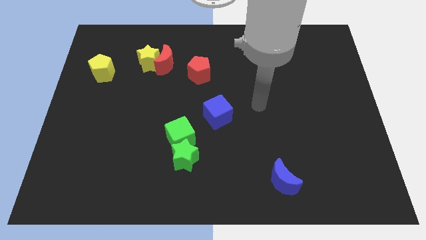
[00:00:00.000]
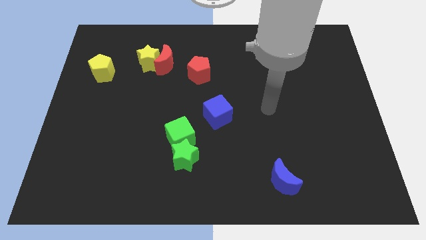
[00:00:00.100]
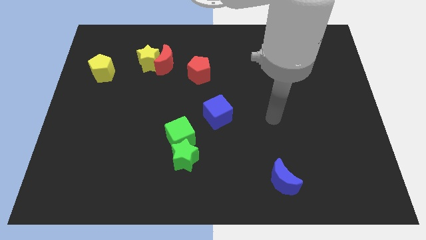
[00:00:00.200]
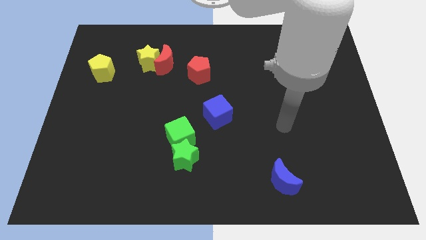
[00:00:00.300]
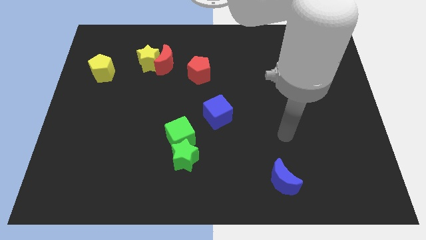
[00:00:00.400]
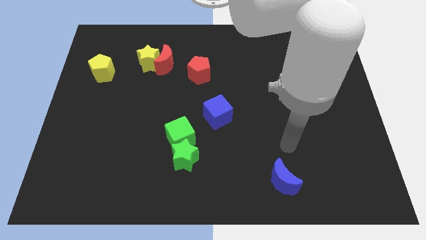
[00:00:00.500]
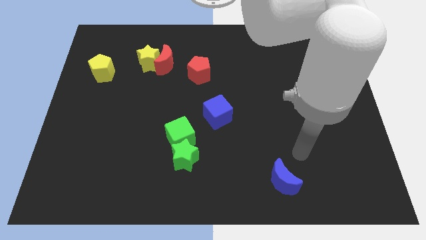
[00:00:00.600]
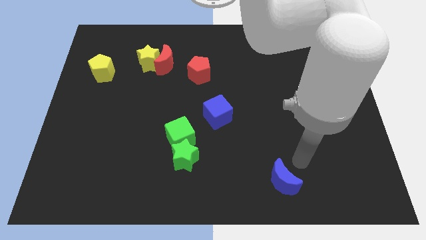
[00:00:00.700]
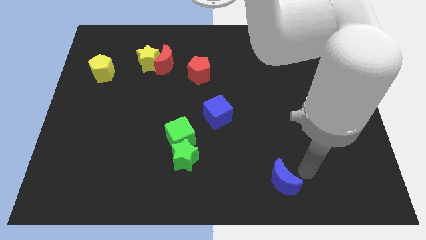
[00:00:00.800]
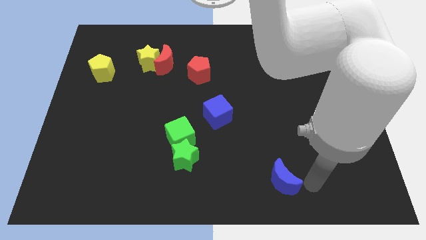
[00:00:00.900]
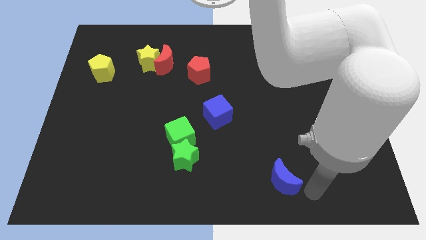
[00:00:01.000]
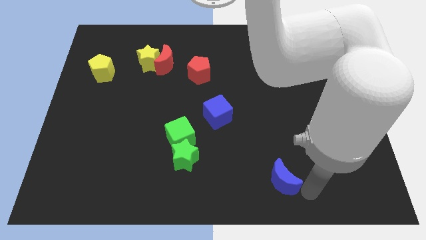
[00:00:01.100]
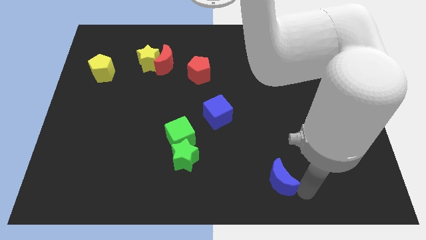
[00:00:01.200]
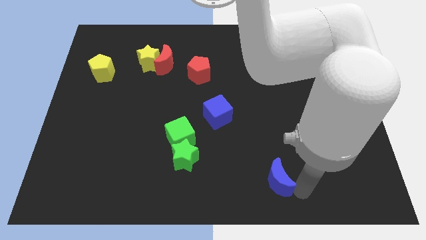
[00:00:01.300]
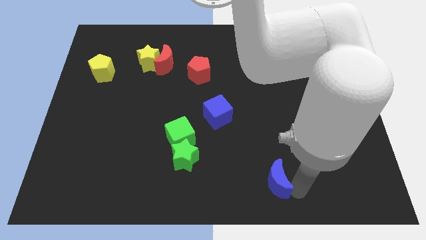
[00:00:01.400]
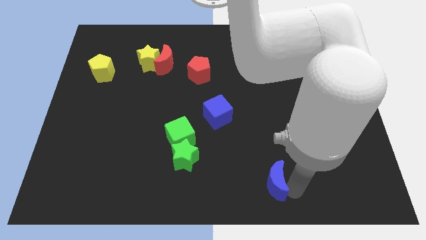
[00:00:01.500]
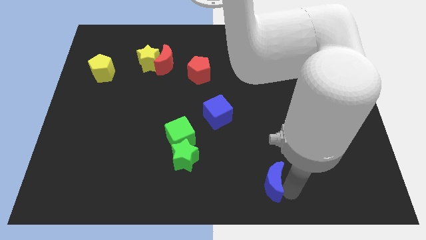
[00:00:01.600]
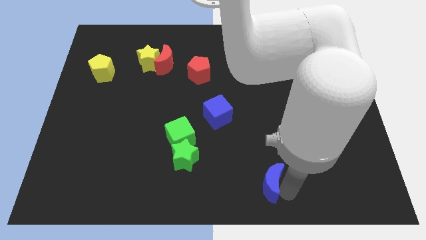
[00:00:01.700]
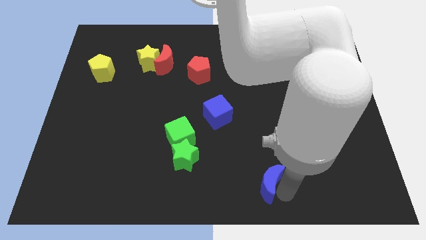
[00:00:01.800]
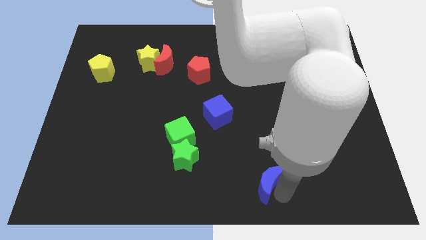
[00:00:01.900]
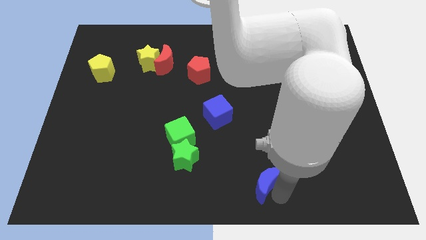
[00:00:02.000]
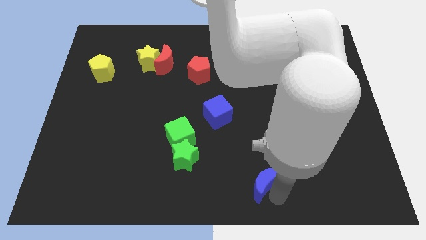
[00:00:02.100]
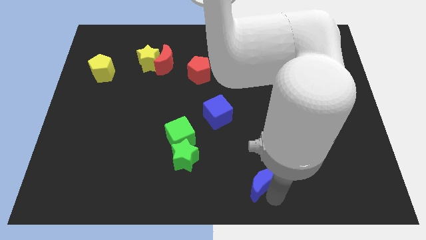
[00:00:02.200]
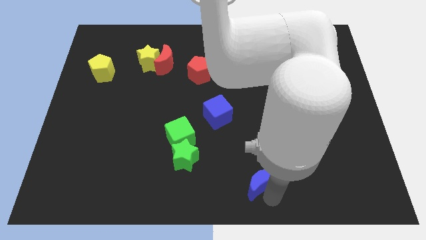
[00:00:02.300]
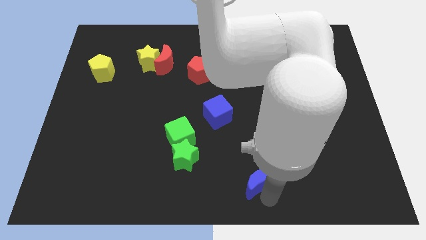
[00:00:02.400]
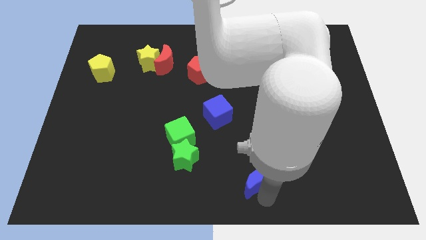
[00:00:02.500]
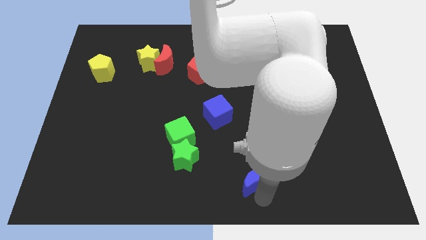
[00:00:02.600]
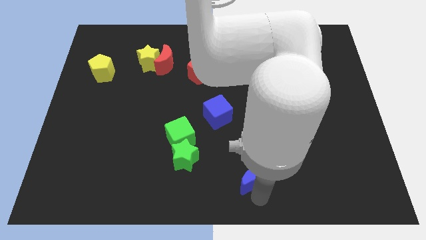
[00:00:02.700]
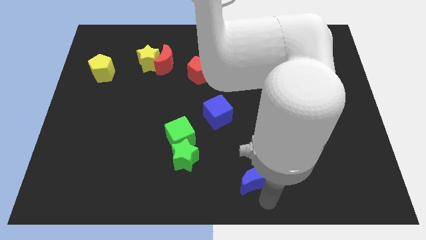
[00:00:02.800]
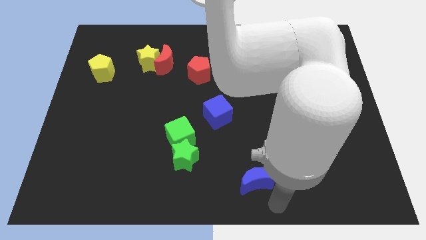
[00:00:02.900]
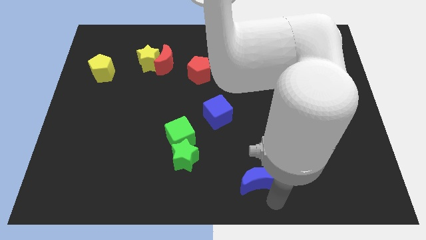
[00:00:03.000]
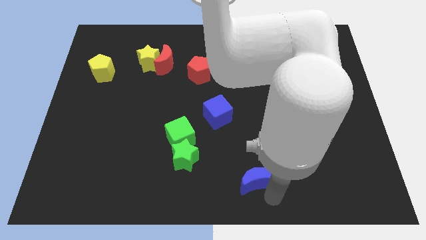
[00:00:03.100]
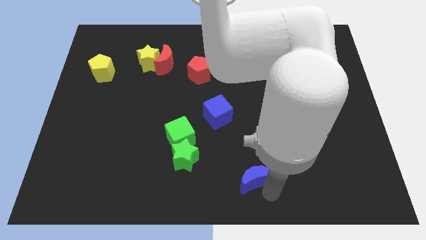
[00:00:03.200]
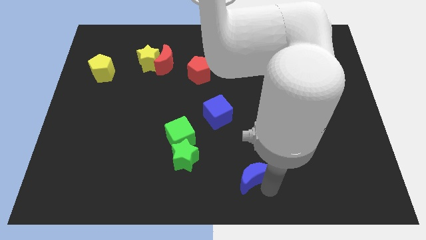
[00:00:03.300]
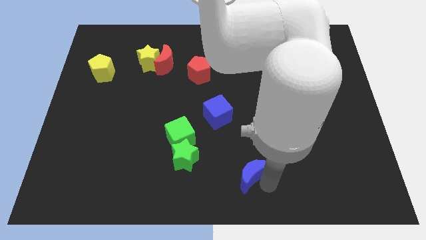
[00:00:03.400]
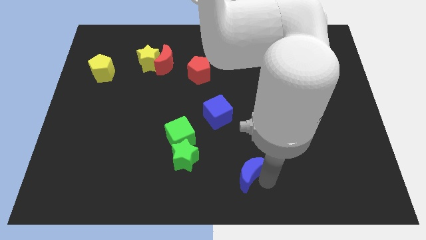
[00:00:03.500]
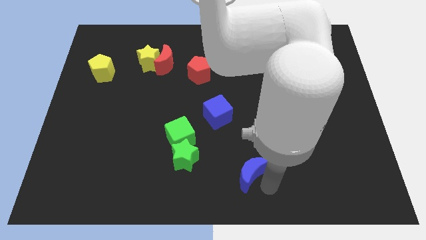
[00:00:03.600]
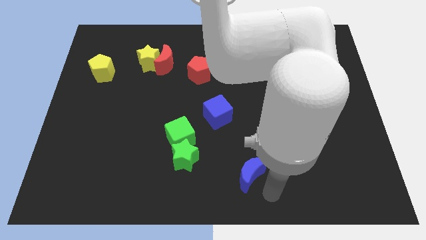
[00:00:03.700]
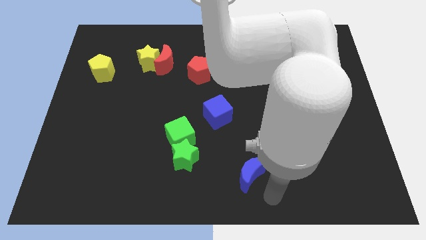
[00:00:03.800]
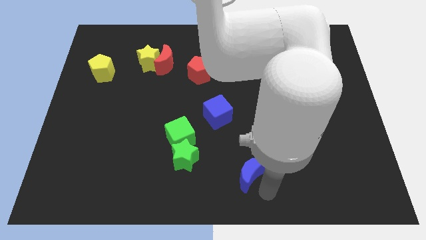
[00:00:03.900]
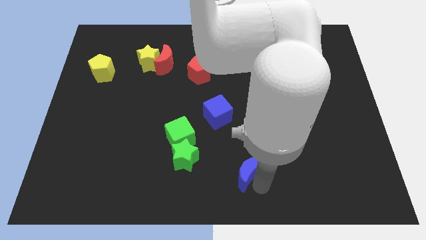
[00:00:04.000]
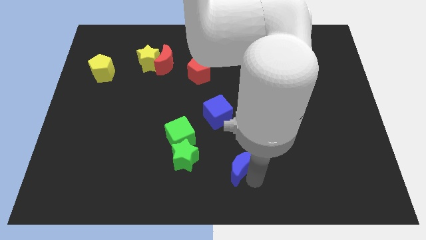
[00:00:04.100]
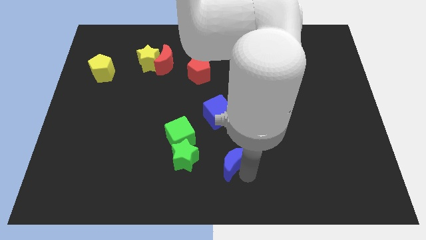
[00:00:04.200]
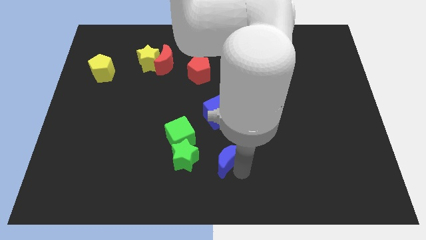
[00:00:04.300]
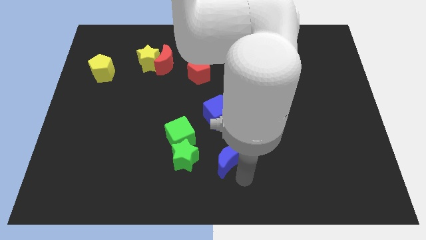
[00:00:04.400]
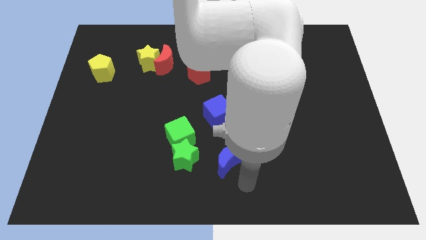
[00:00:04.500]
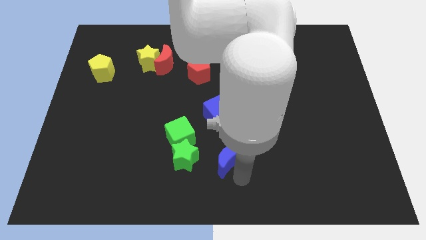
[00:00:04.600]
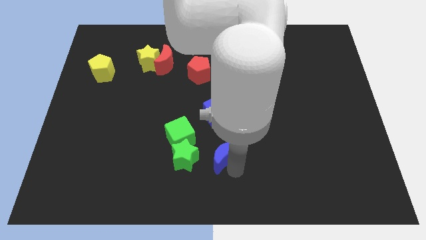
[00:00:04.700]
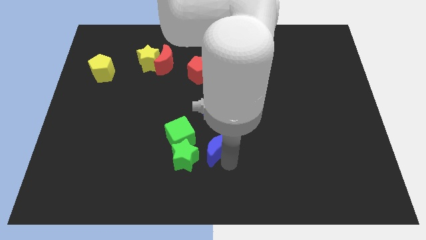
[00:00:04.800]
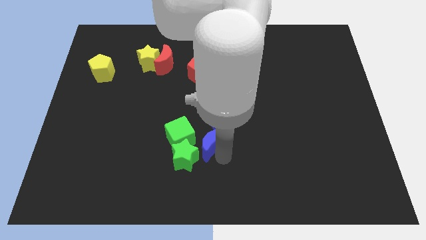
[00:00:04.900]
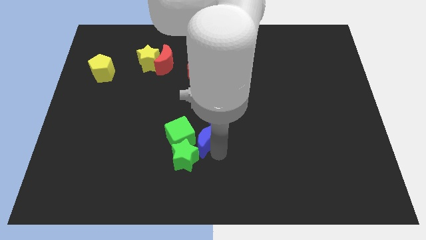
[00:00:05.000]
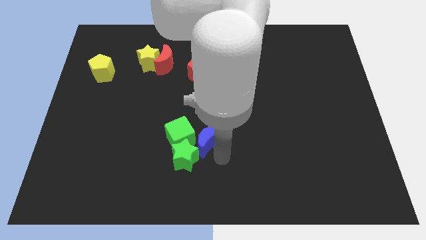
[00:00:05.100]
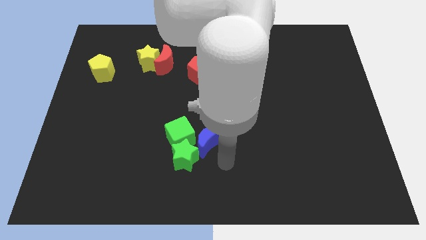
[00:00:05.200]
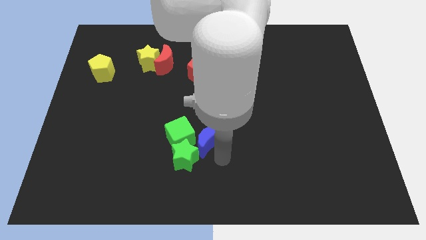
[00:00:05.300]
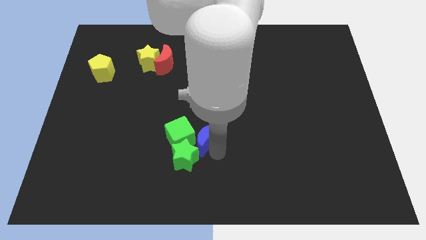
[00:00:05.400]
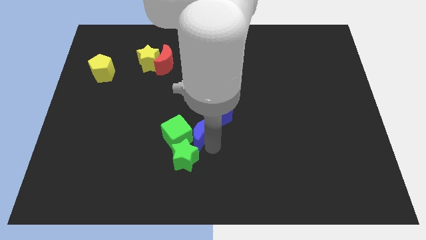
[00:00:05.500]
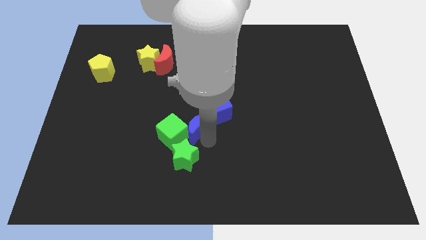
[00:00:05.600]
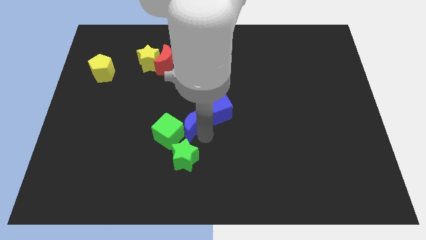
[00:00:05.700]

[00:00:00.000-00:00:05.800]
put the blue moon to the left of the blue cube

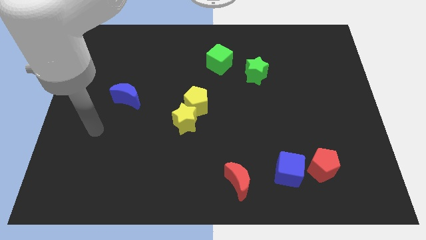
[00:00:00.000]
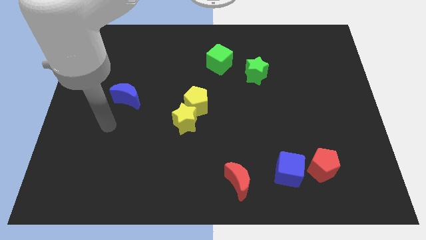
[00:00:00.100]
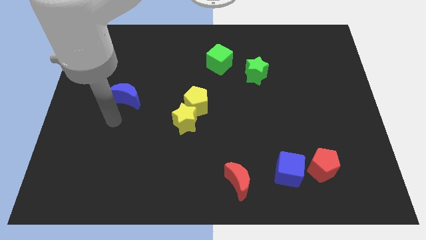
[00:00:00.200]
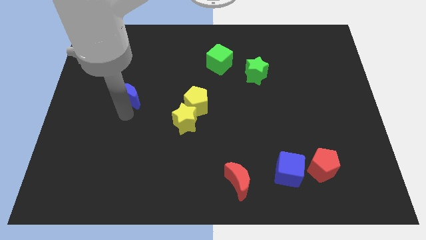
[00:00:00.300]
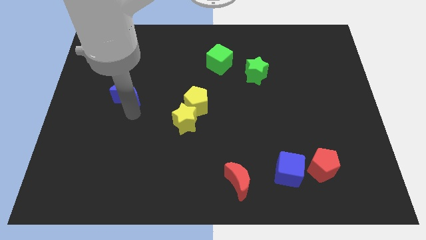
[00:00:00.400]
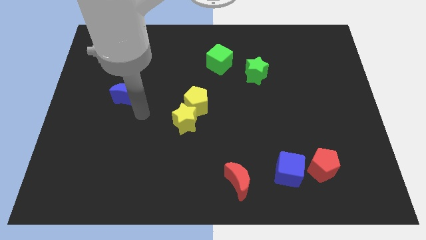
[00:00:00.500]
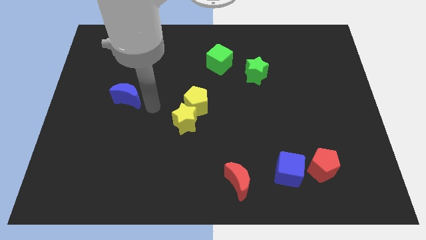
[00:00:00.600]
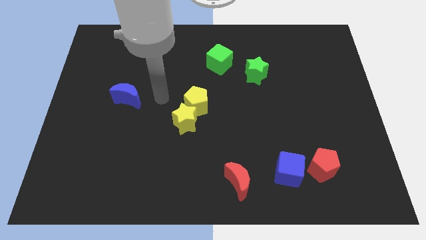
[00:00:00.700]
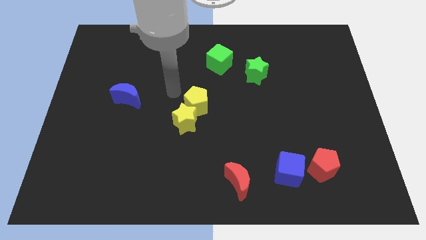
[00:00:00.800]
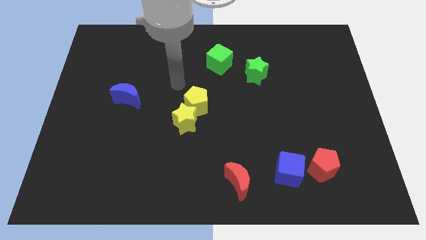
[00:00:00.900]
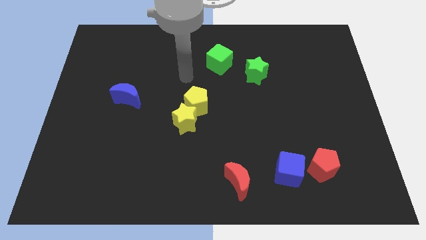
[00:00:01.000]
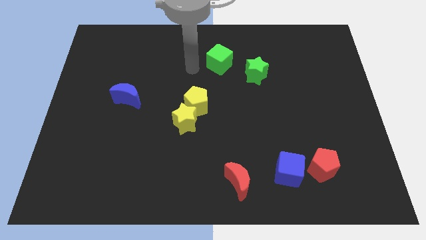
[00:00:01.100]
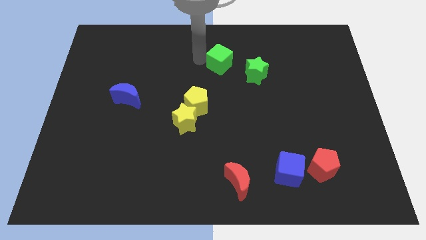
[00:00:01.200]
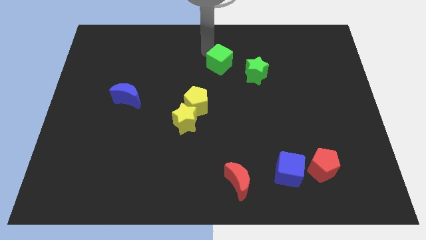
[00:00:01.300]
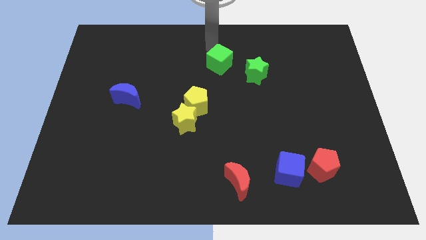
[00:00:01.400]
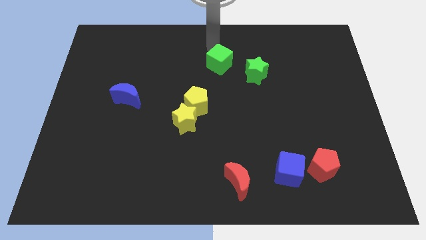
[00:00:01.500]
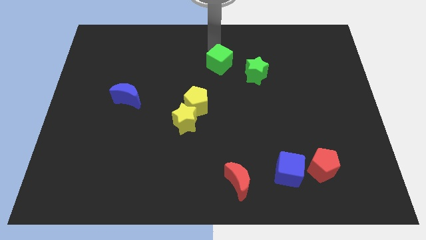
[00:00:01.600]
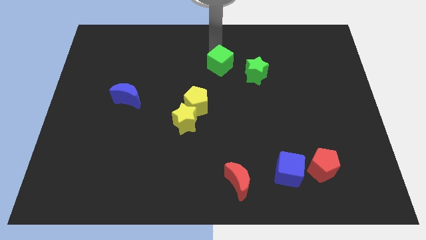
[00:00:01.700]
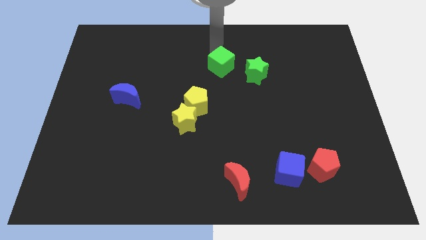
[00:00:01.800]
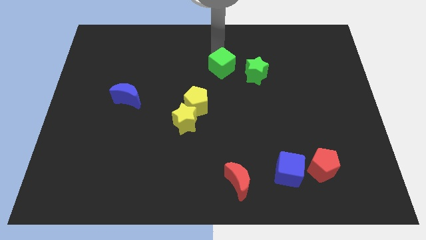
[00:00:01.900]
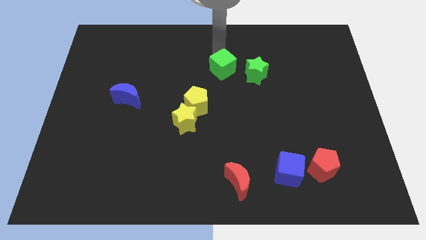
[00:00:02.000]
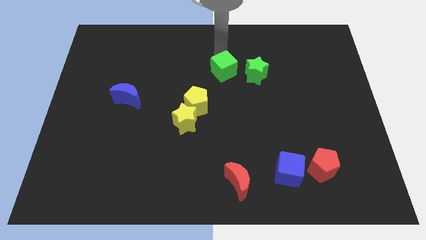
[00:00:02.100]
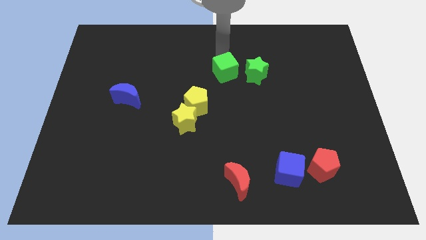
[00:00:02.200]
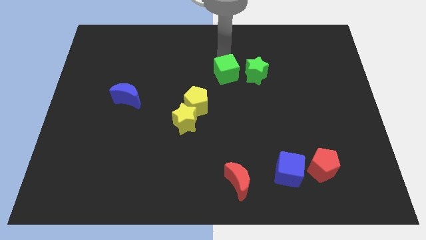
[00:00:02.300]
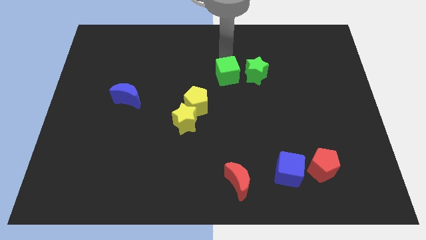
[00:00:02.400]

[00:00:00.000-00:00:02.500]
push the green cube to the bottom left of the green star
